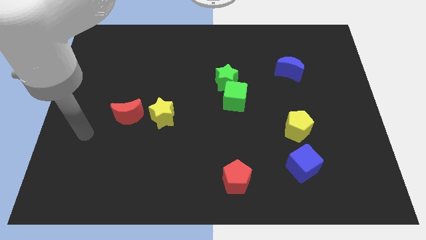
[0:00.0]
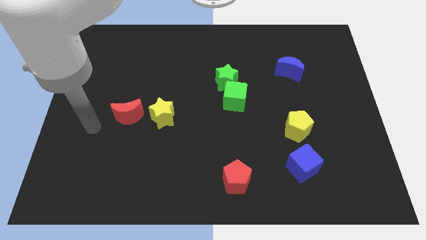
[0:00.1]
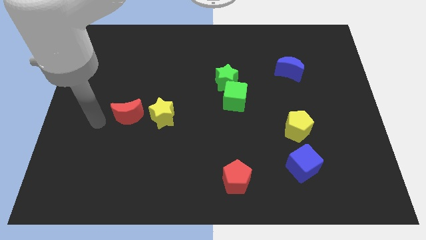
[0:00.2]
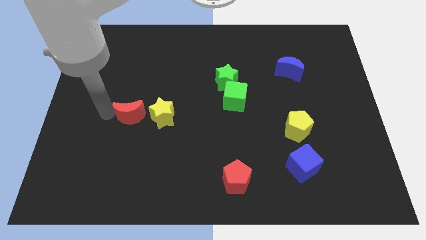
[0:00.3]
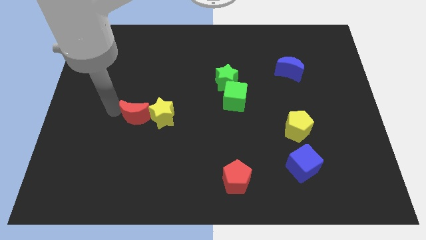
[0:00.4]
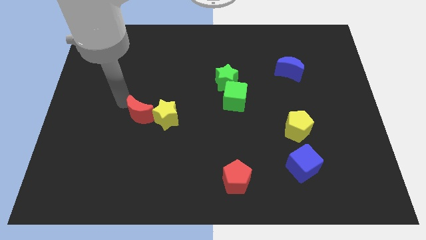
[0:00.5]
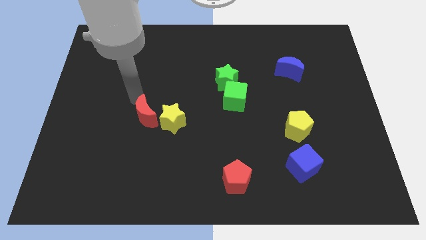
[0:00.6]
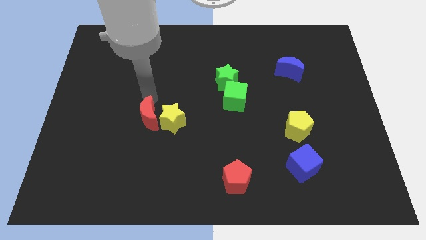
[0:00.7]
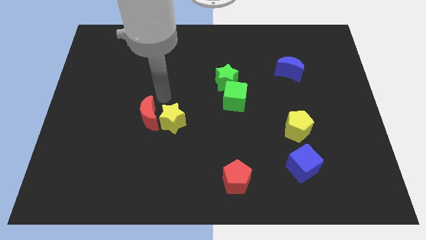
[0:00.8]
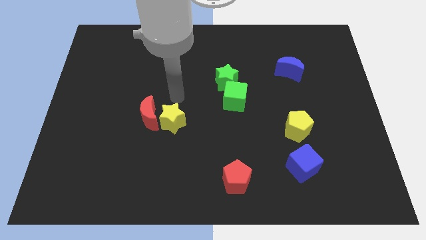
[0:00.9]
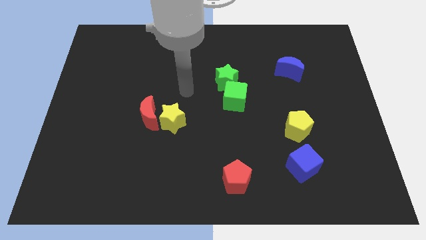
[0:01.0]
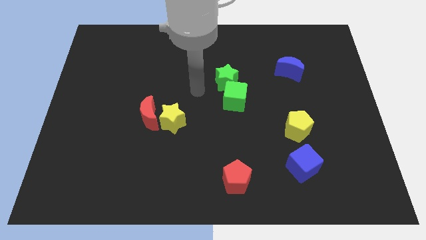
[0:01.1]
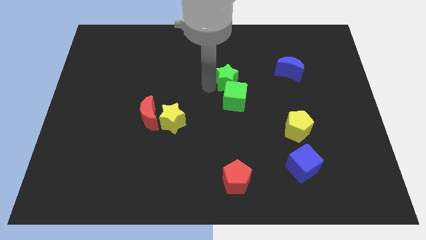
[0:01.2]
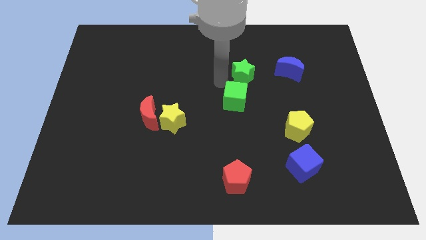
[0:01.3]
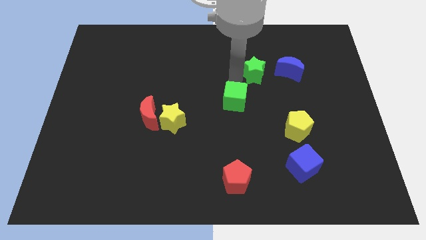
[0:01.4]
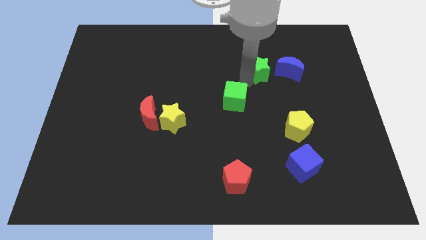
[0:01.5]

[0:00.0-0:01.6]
pull the green cube apart from the green star

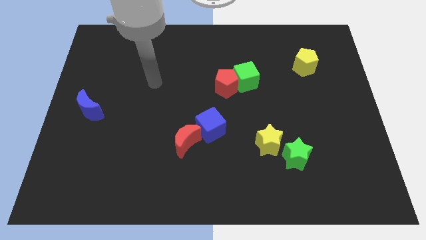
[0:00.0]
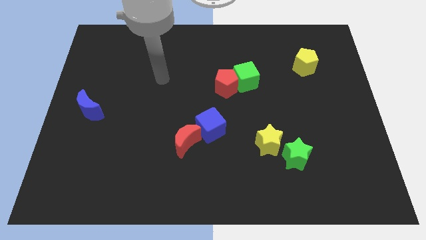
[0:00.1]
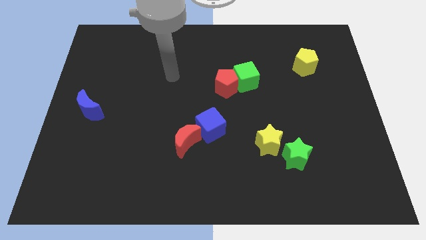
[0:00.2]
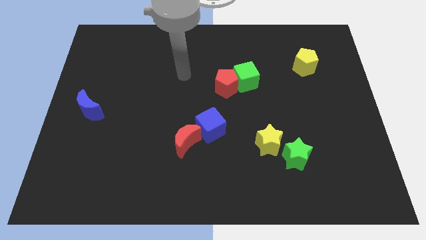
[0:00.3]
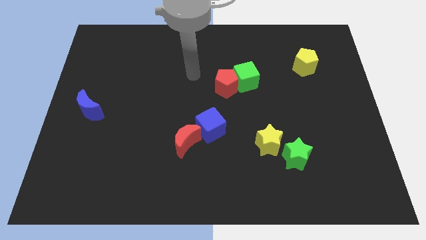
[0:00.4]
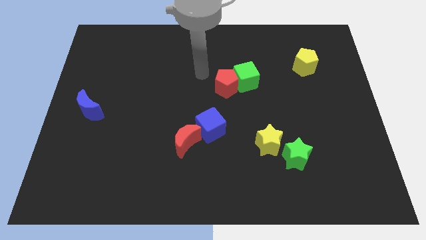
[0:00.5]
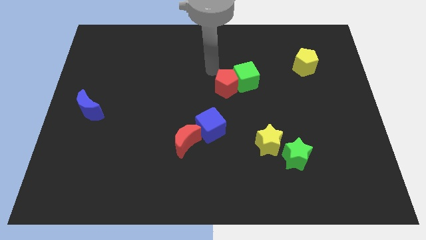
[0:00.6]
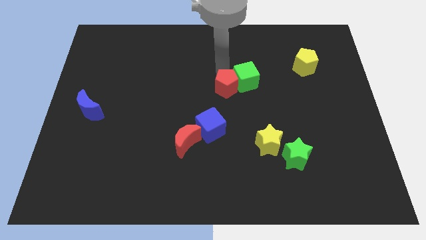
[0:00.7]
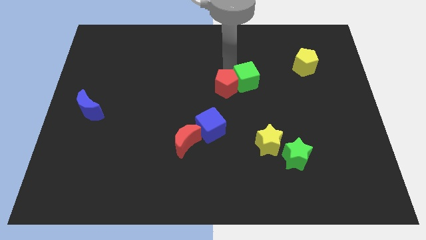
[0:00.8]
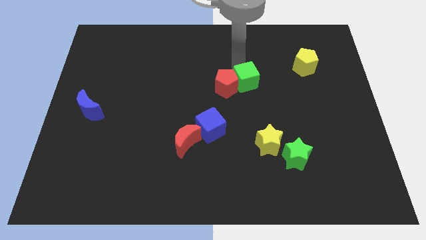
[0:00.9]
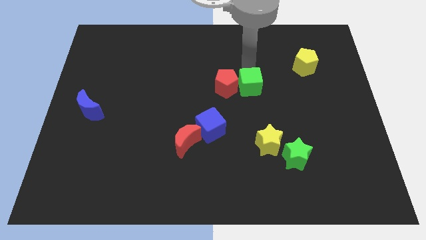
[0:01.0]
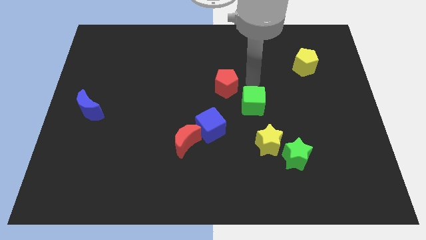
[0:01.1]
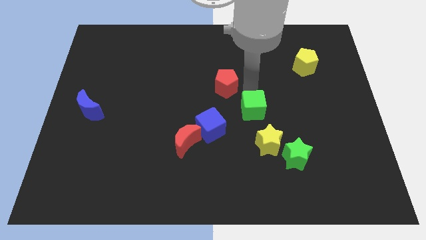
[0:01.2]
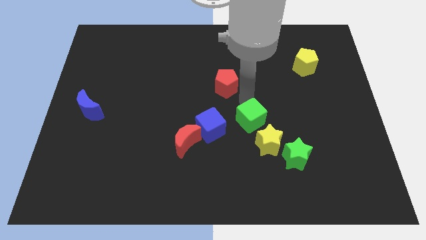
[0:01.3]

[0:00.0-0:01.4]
pull the red pentagon apart from the green cube

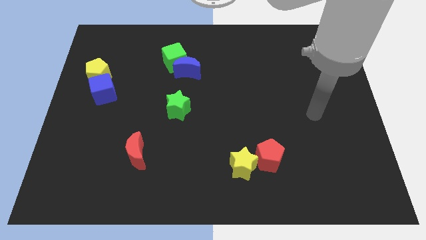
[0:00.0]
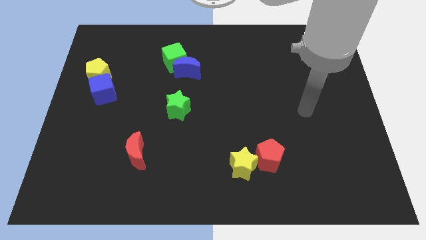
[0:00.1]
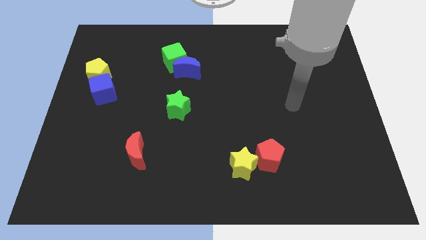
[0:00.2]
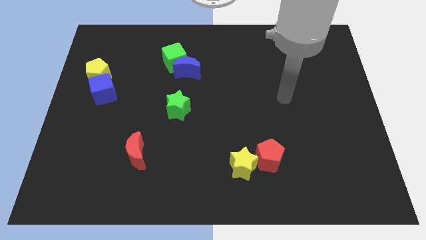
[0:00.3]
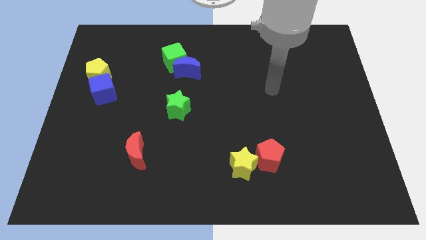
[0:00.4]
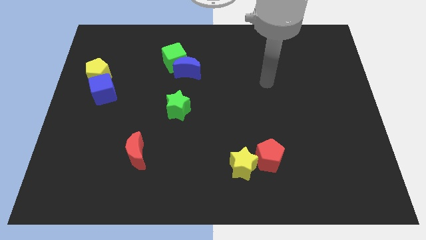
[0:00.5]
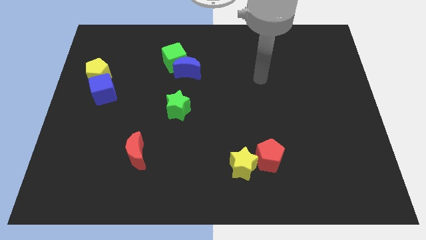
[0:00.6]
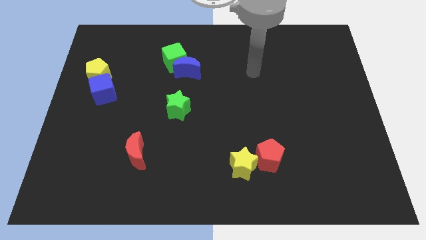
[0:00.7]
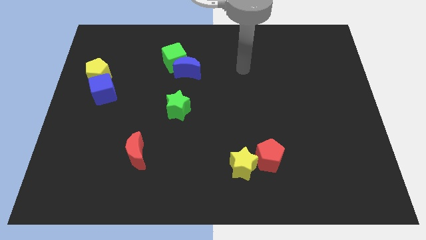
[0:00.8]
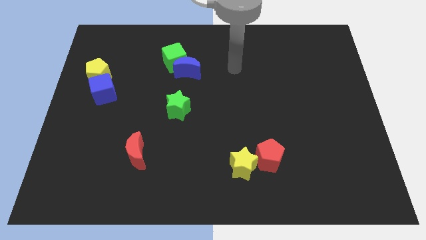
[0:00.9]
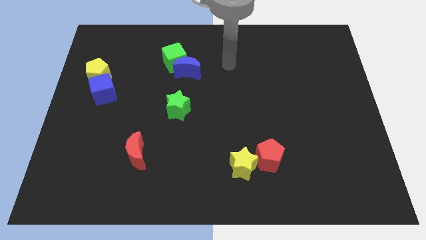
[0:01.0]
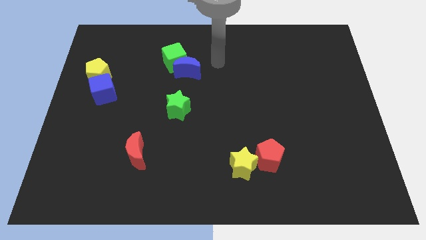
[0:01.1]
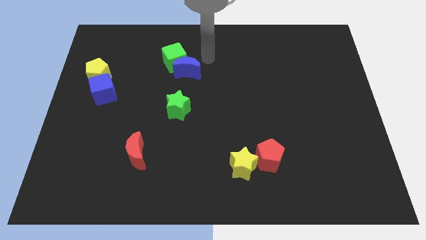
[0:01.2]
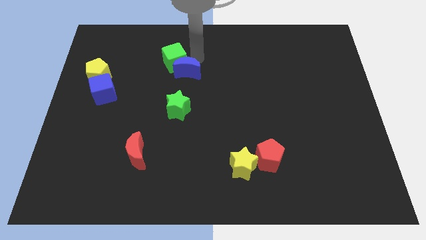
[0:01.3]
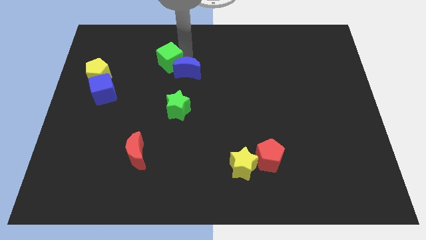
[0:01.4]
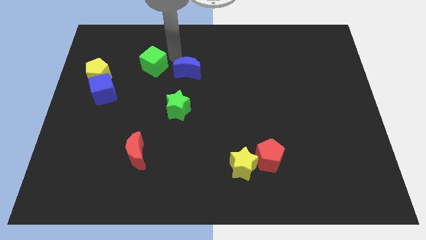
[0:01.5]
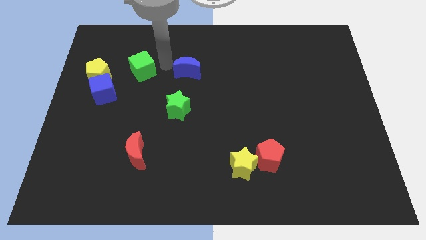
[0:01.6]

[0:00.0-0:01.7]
separate the blue moon from the green cube

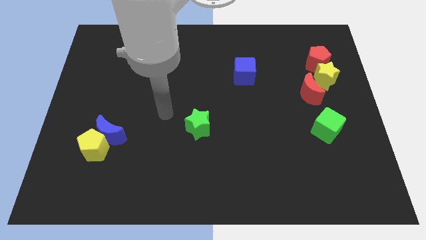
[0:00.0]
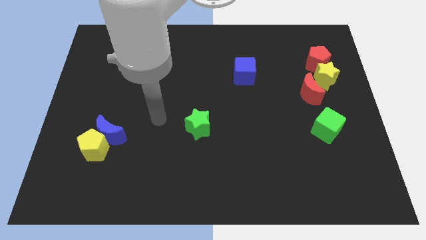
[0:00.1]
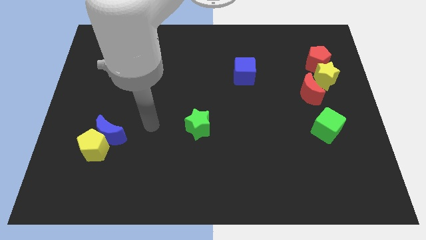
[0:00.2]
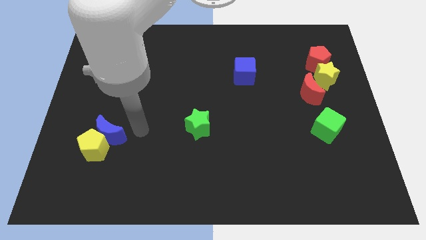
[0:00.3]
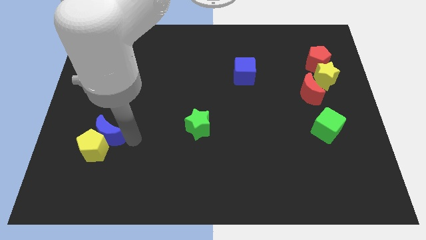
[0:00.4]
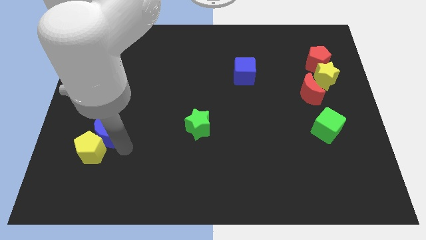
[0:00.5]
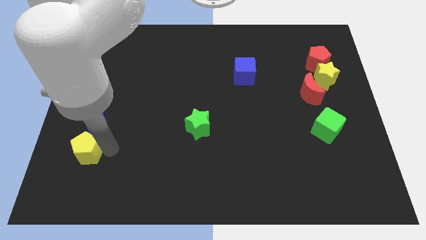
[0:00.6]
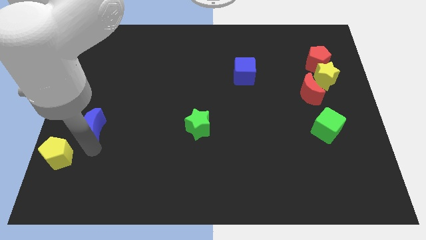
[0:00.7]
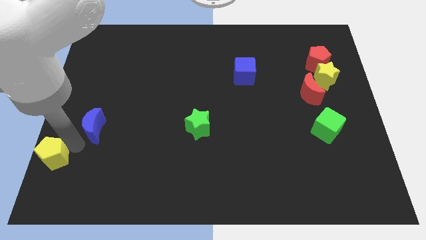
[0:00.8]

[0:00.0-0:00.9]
separate the blue moon from the yellow pentagon

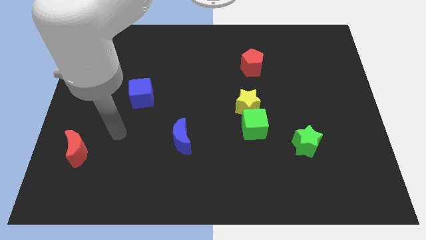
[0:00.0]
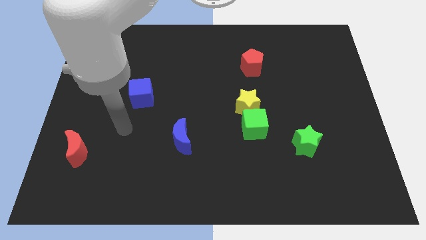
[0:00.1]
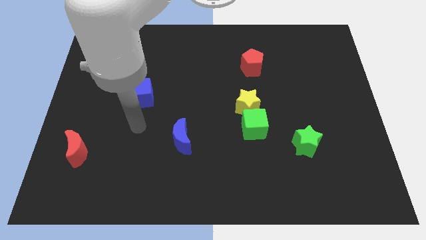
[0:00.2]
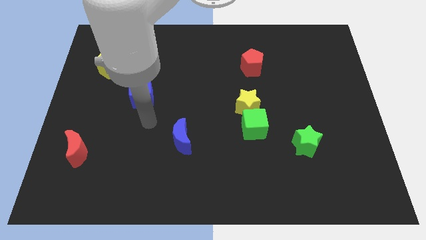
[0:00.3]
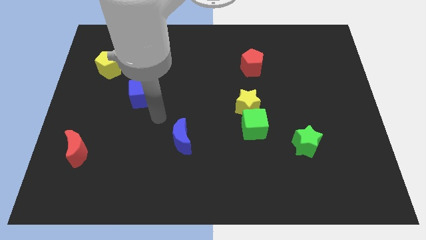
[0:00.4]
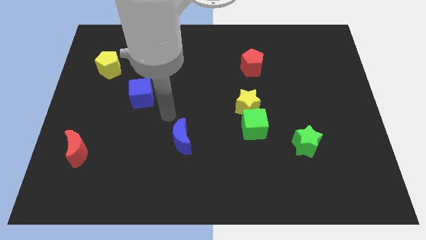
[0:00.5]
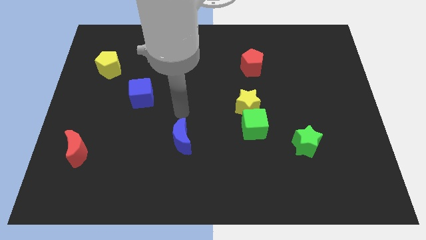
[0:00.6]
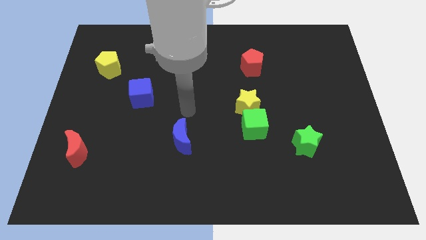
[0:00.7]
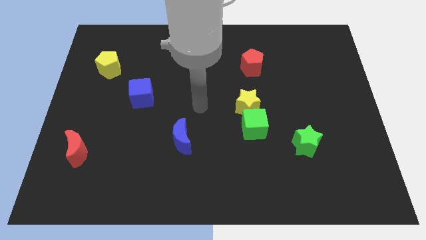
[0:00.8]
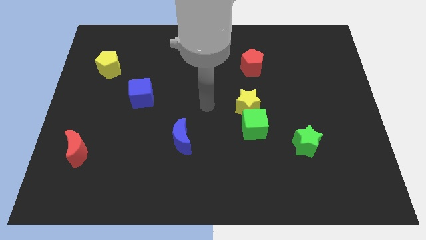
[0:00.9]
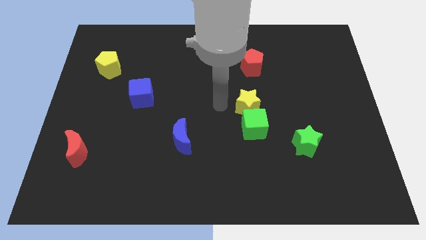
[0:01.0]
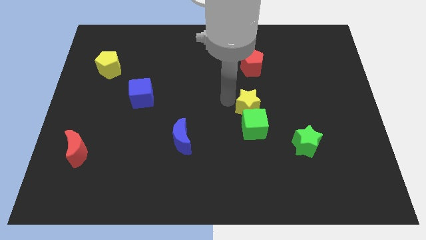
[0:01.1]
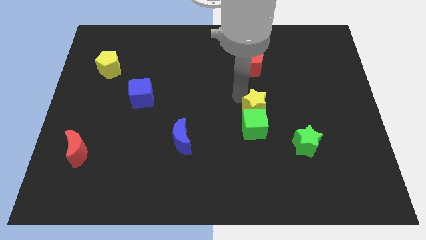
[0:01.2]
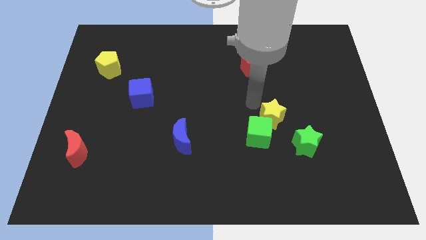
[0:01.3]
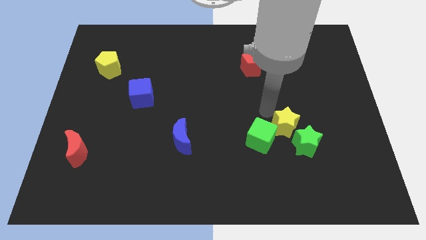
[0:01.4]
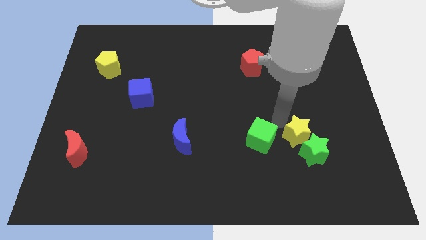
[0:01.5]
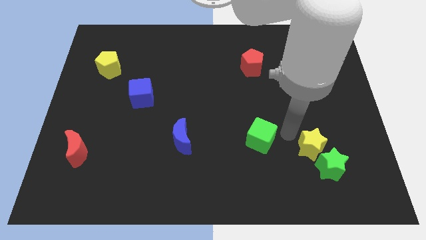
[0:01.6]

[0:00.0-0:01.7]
move the green cube away from the yellow star

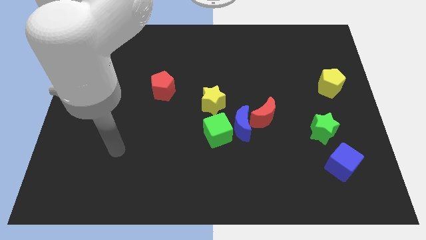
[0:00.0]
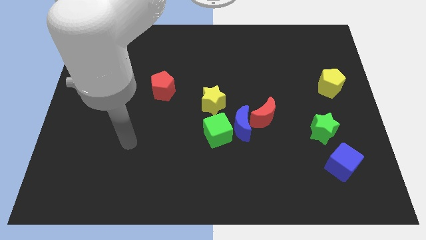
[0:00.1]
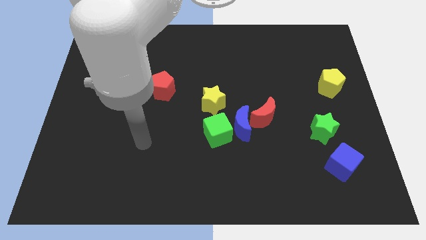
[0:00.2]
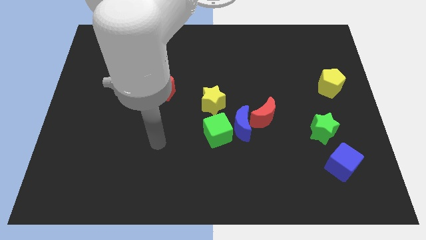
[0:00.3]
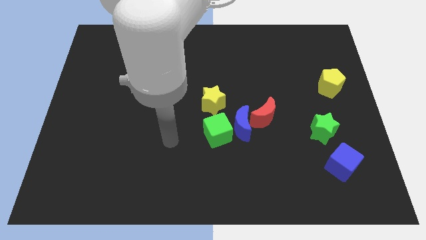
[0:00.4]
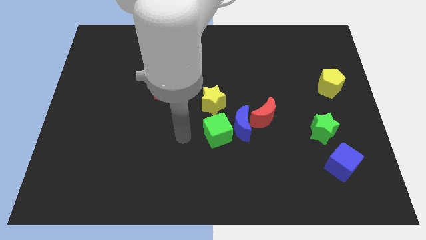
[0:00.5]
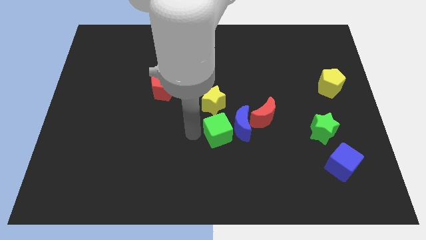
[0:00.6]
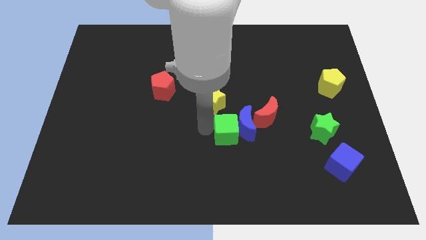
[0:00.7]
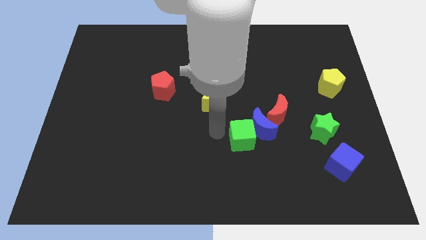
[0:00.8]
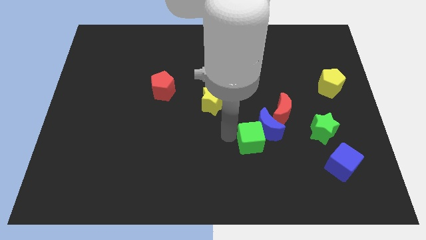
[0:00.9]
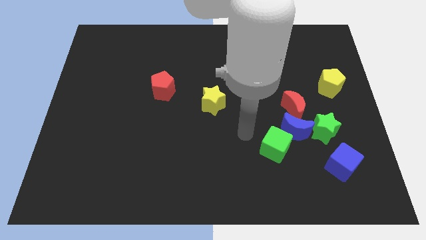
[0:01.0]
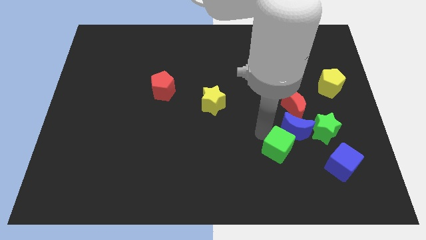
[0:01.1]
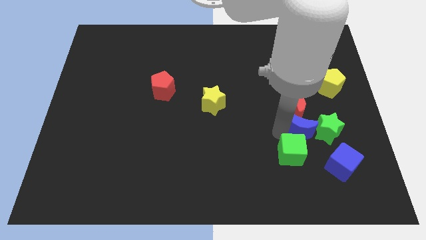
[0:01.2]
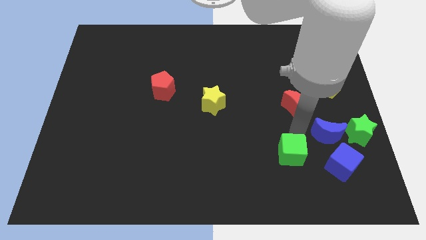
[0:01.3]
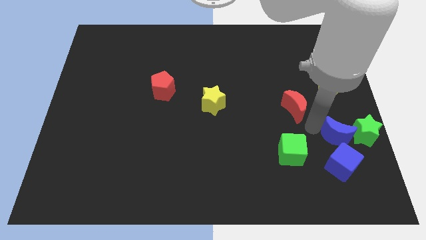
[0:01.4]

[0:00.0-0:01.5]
pull the red moon apart from the blue moon

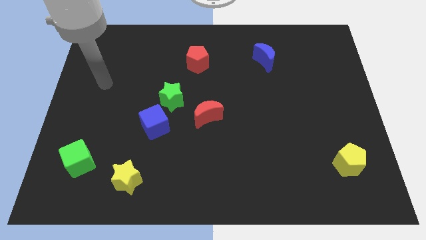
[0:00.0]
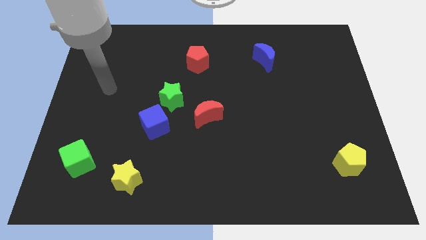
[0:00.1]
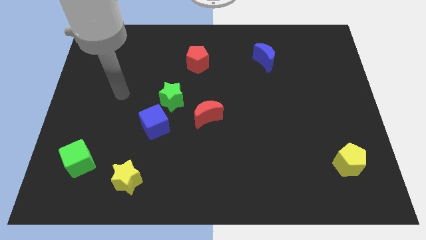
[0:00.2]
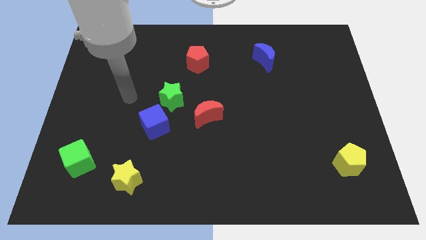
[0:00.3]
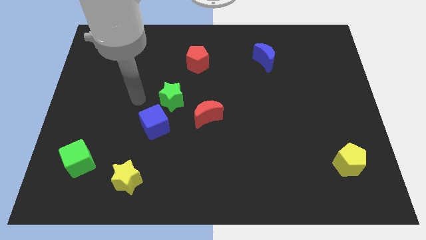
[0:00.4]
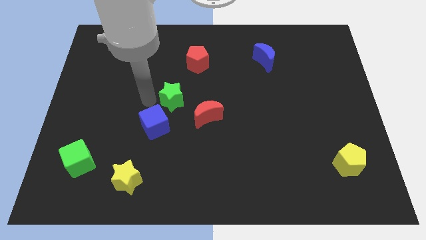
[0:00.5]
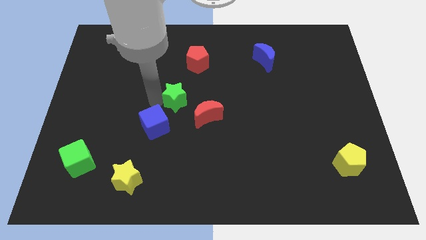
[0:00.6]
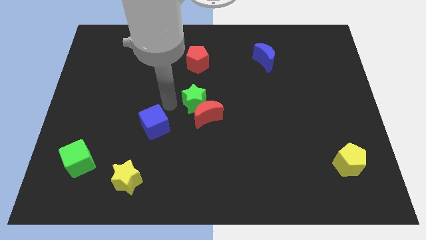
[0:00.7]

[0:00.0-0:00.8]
move the blue cube away from the green star
